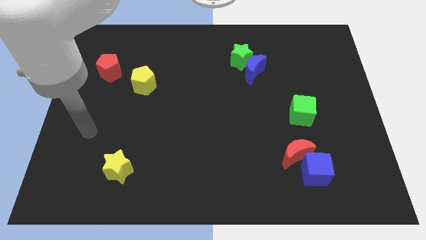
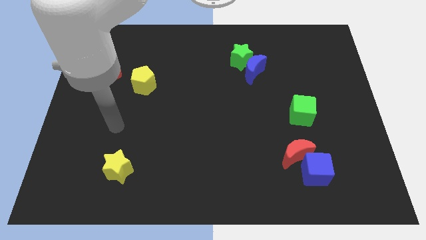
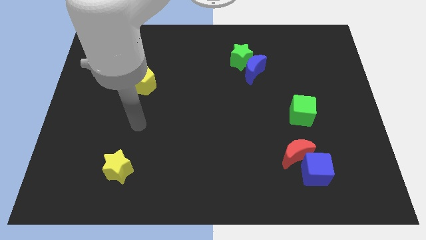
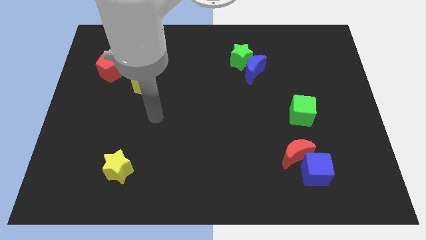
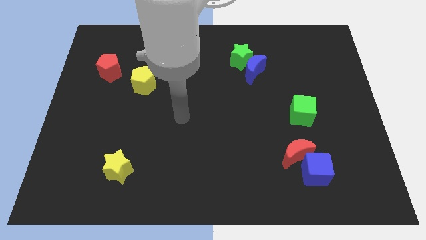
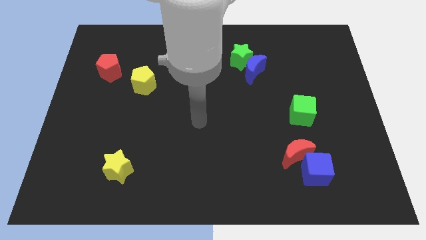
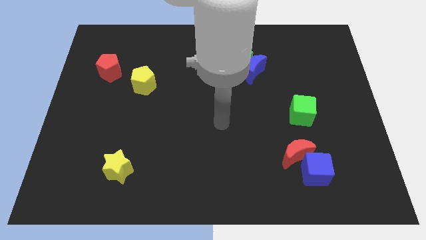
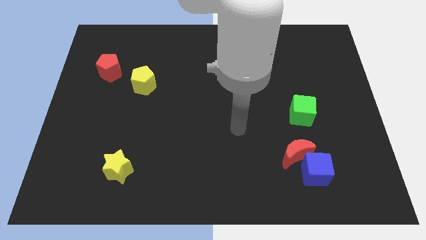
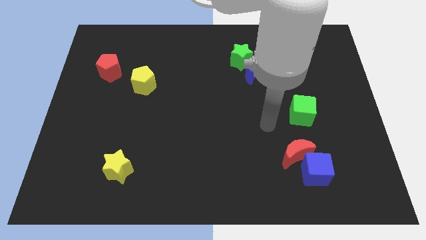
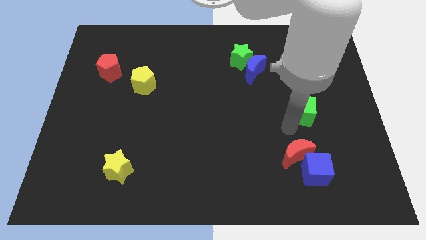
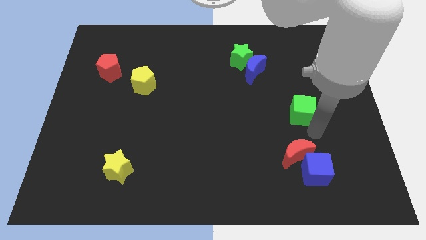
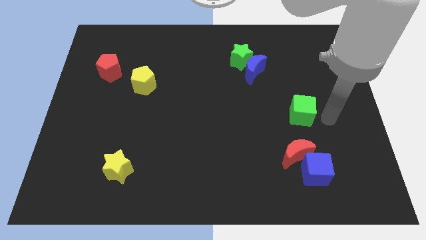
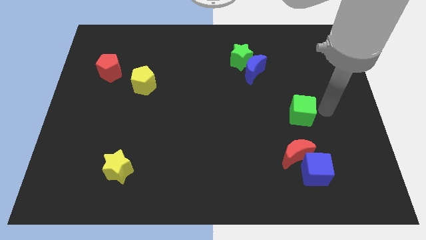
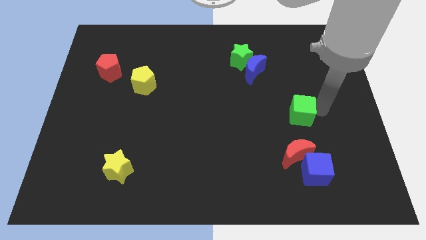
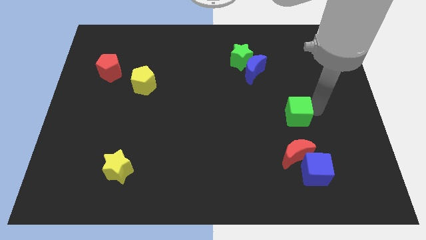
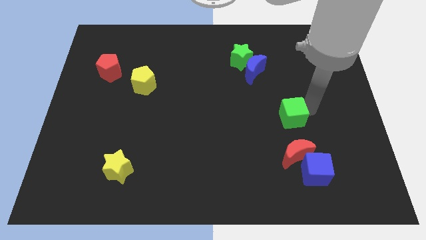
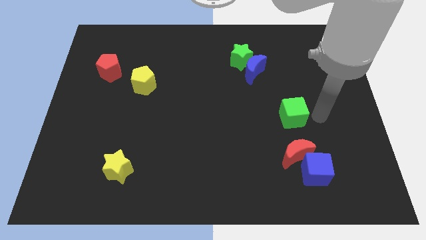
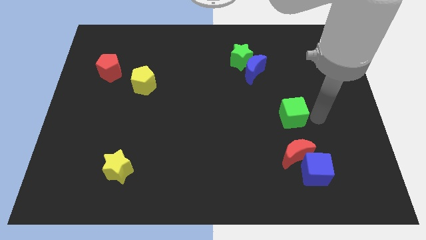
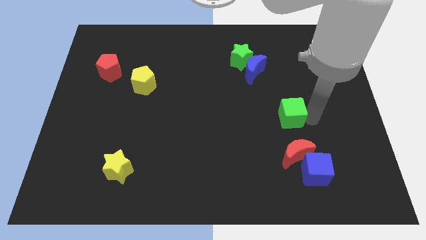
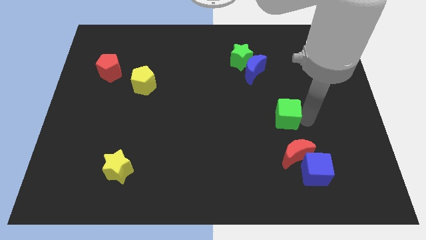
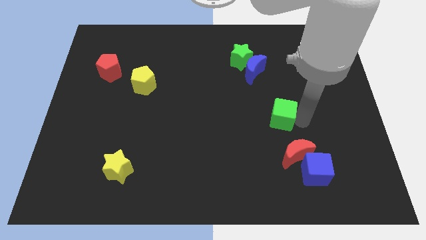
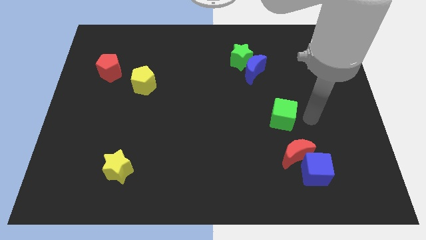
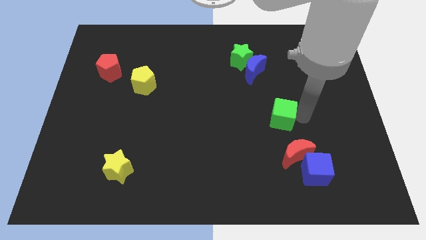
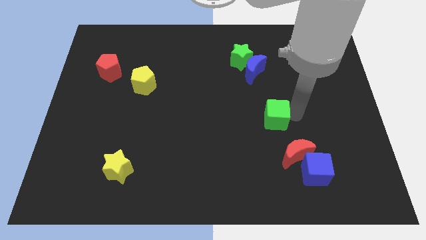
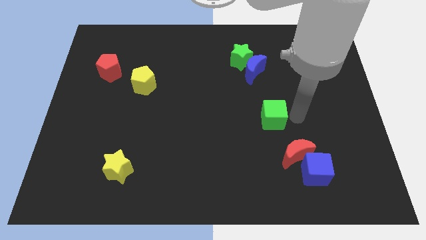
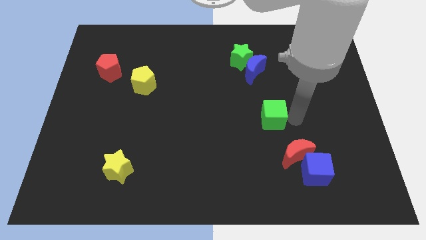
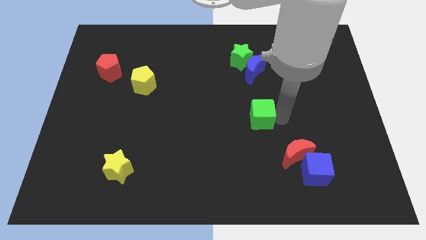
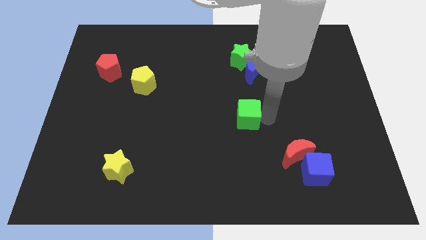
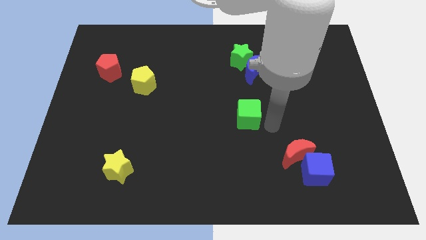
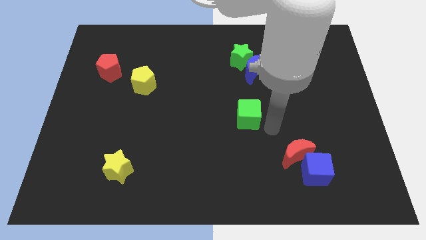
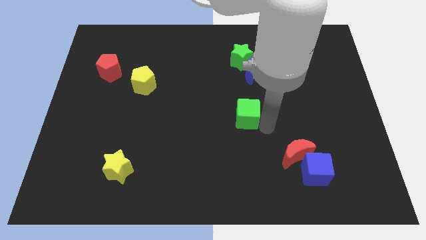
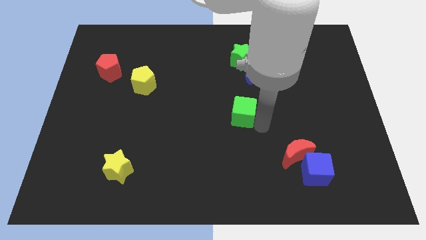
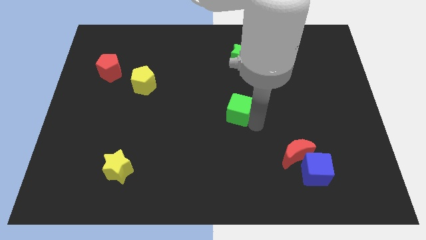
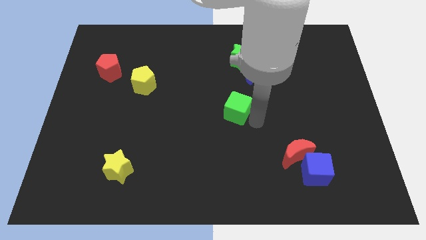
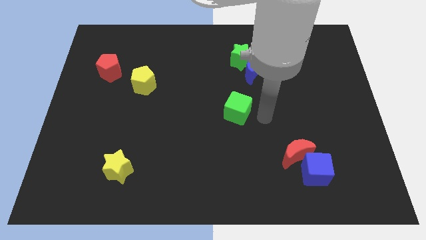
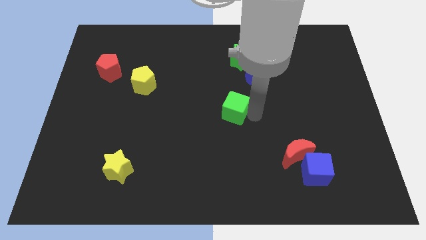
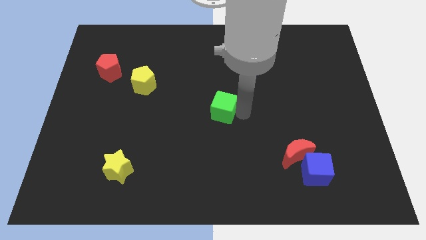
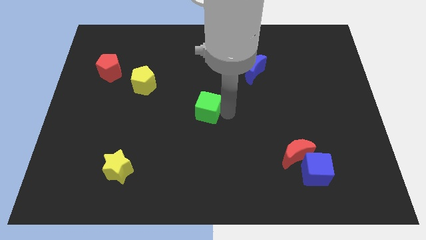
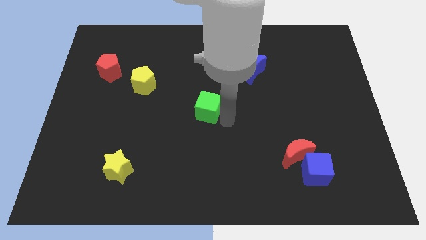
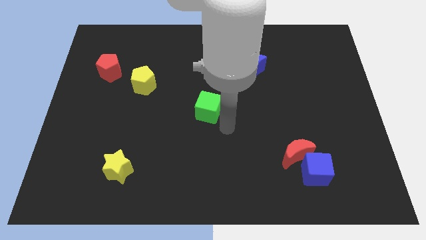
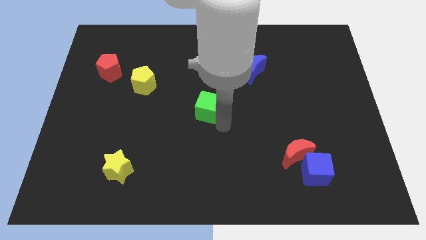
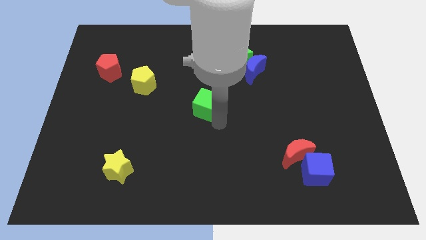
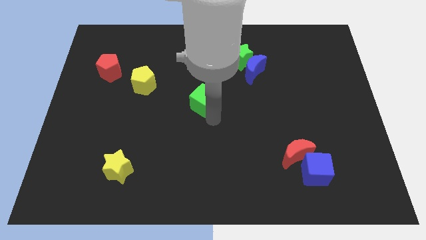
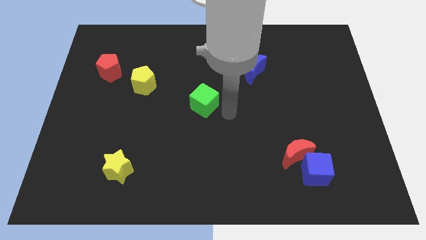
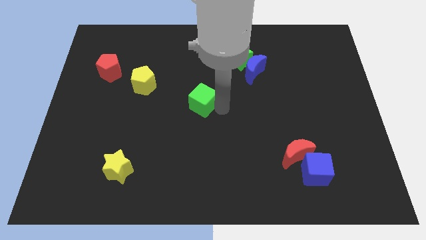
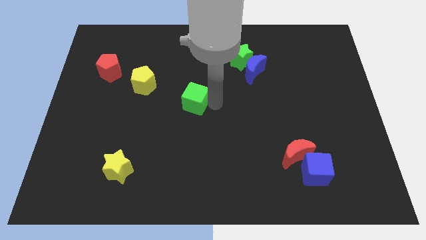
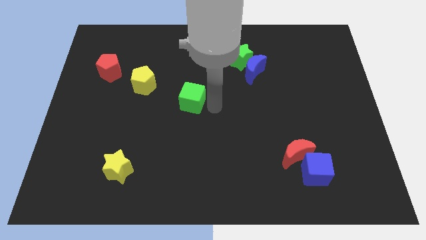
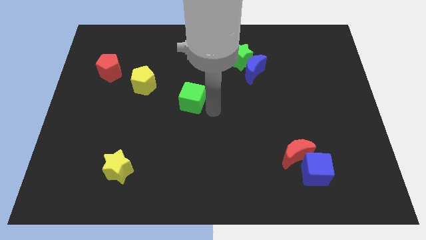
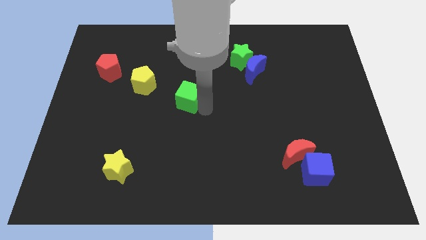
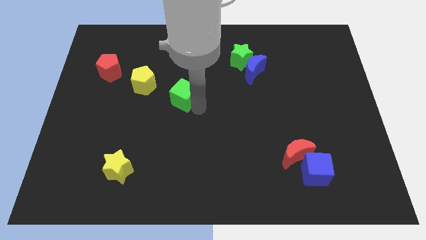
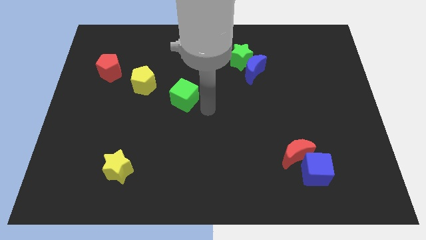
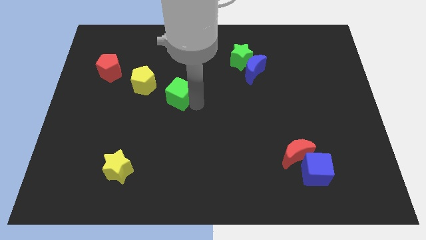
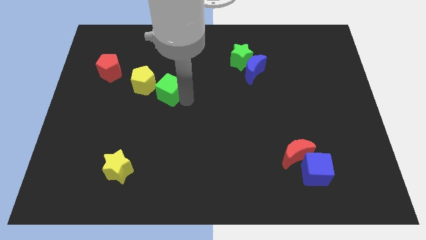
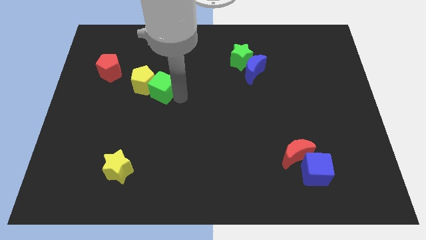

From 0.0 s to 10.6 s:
push the green cube next to the yellow pentagon

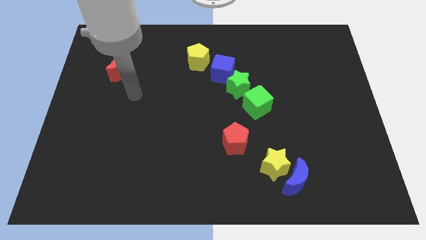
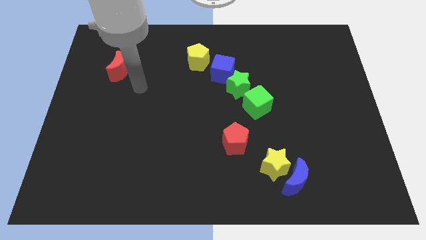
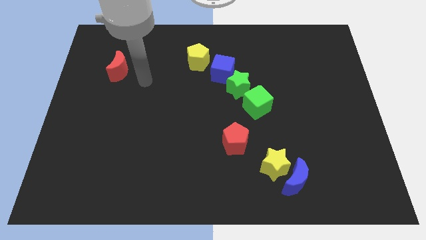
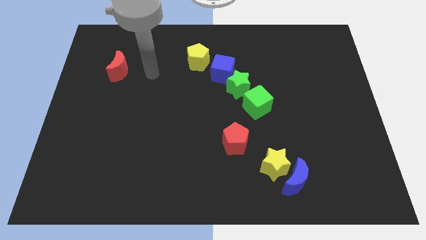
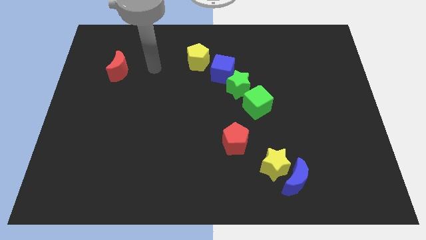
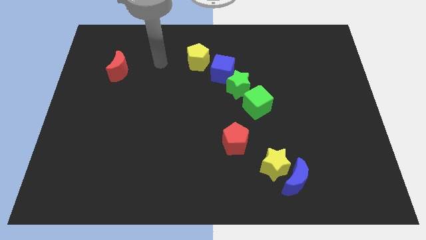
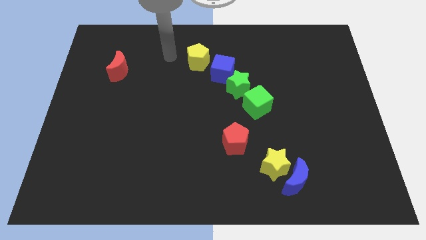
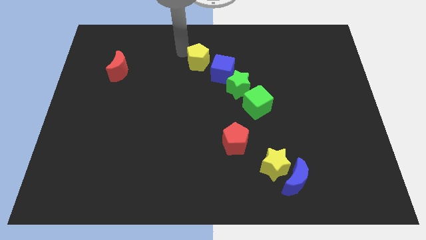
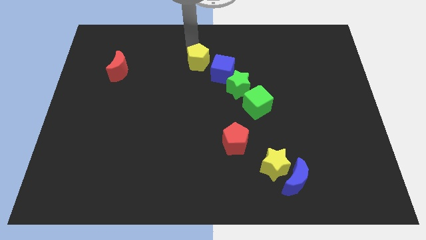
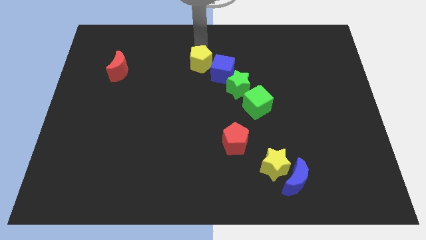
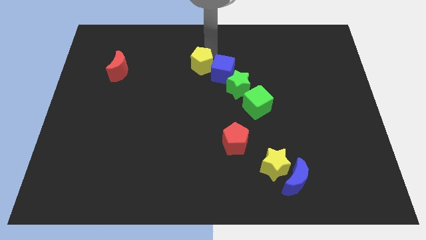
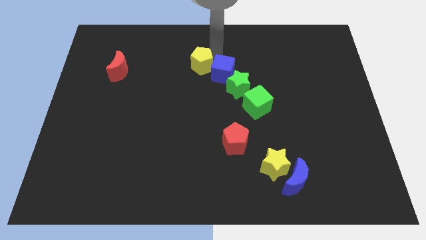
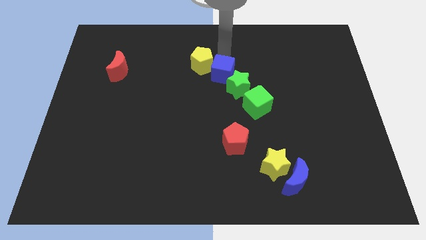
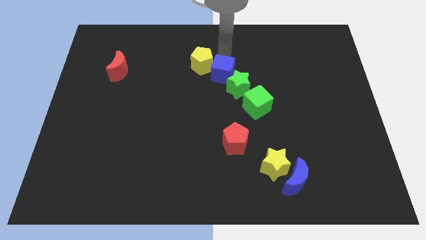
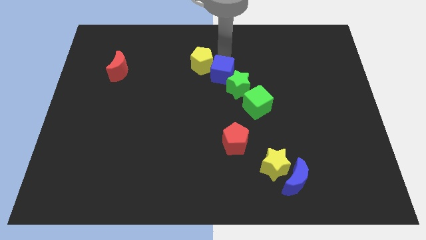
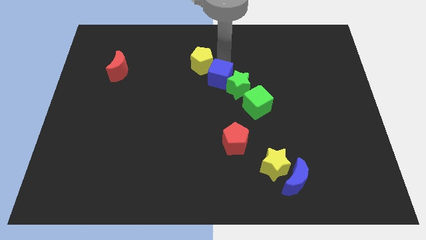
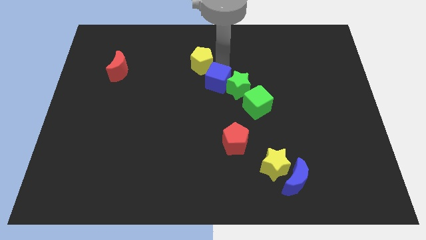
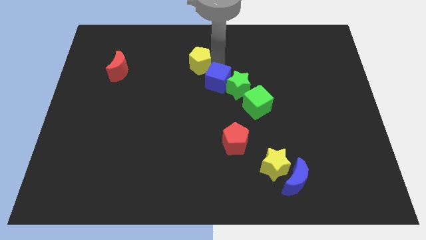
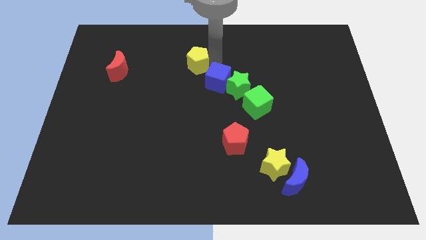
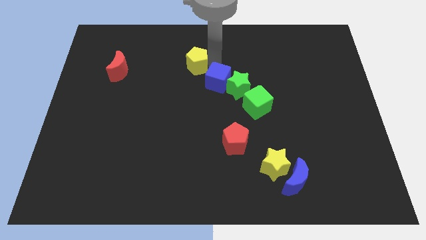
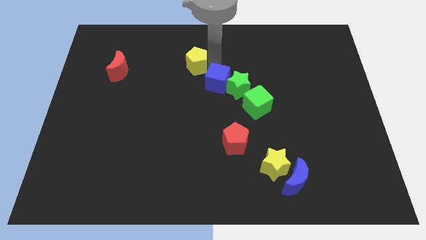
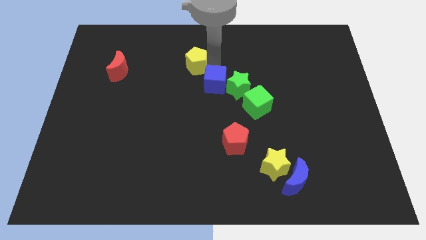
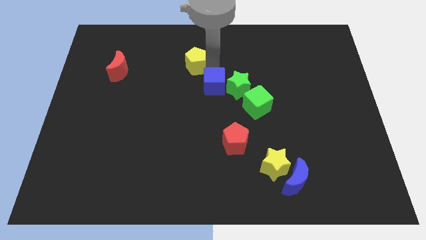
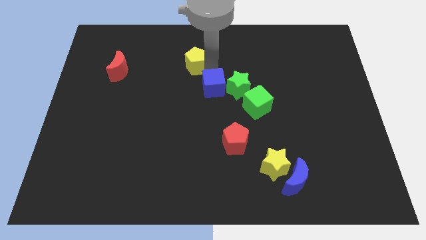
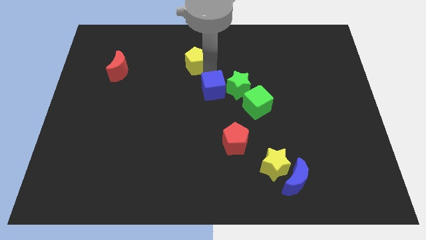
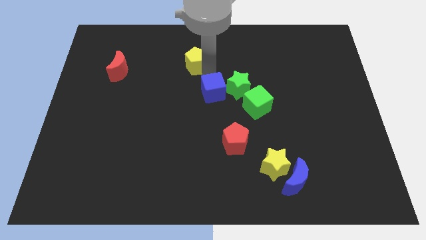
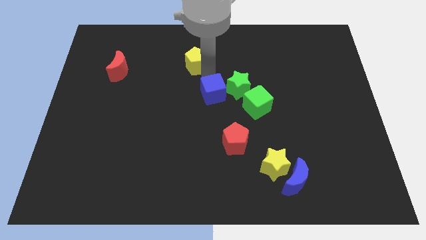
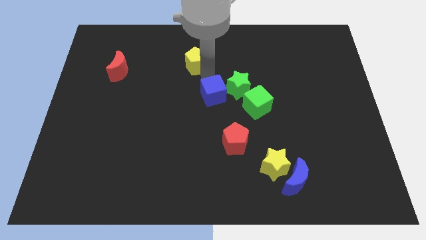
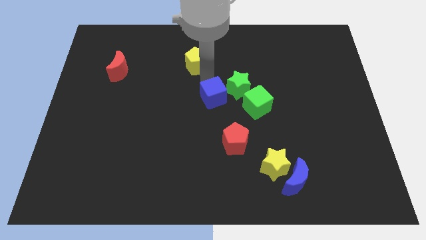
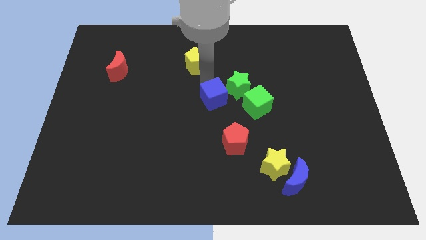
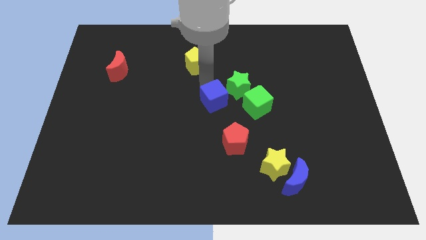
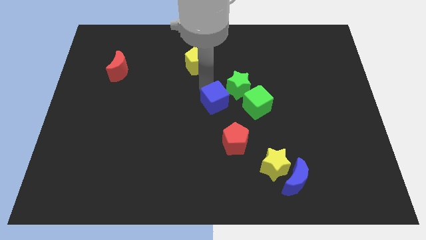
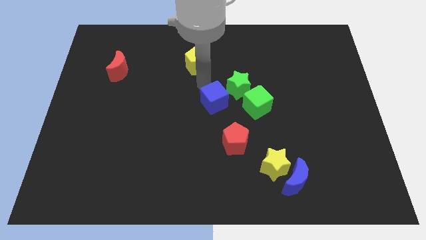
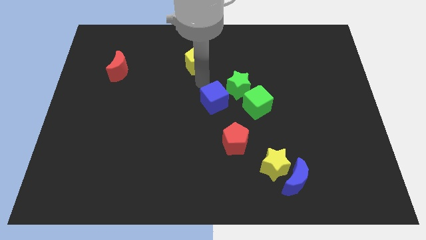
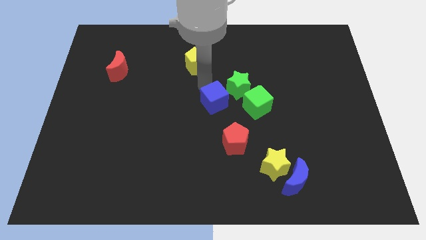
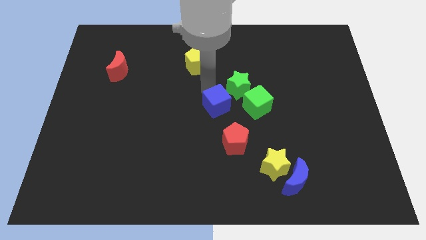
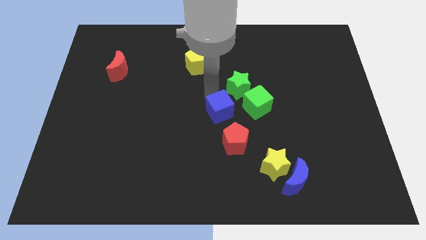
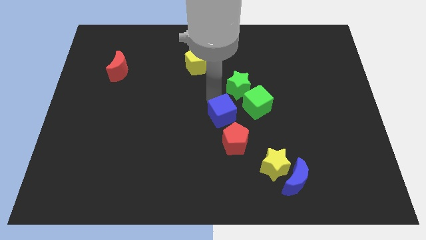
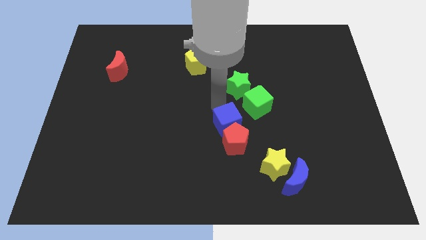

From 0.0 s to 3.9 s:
put the blue cube to the red pentagon
